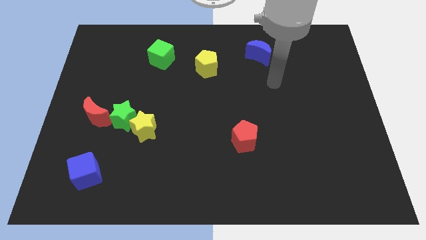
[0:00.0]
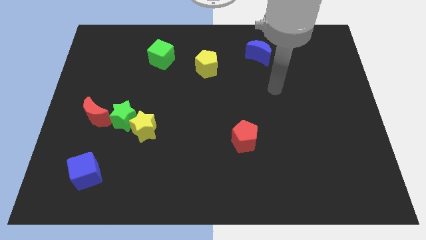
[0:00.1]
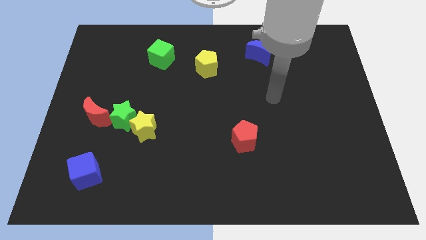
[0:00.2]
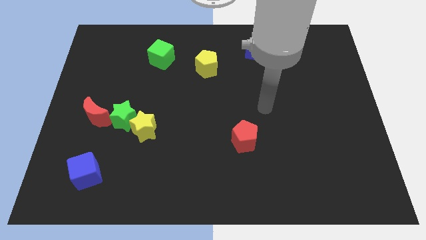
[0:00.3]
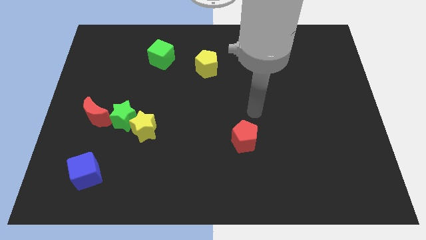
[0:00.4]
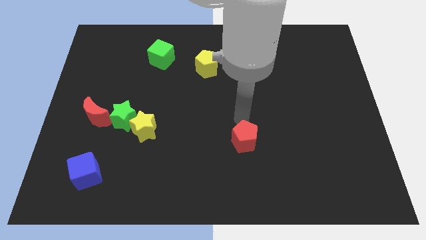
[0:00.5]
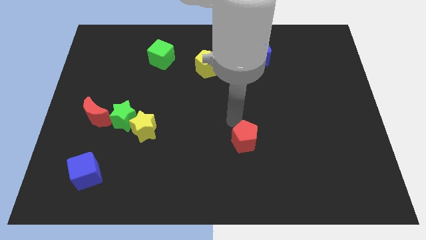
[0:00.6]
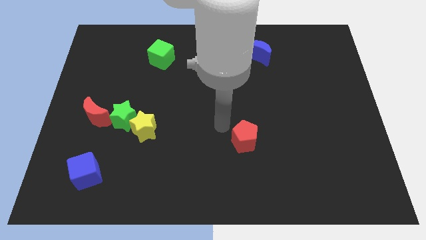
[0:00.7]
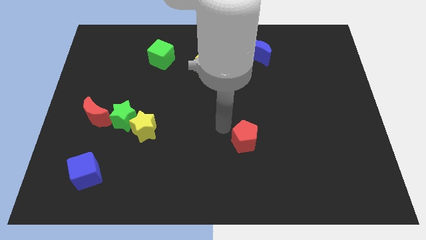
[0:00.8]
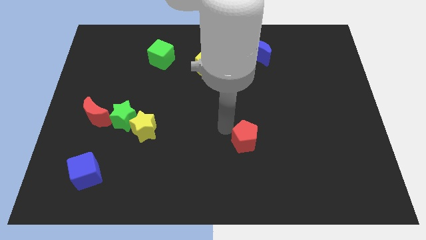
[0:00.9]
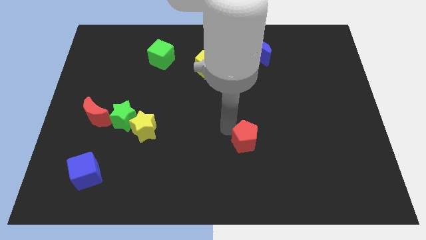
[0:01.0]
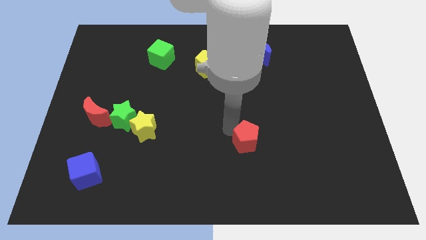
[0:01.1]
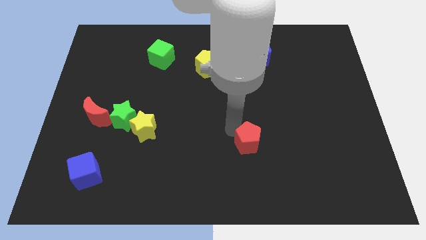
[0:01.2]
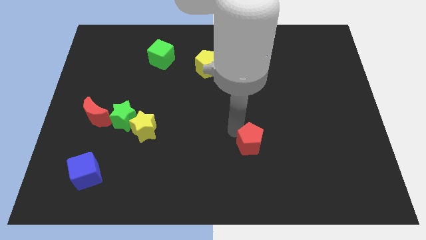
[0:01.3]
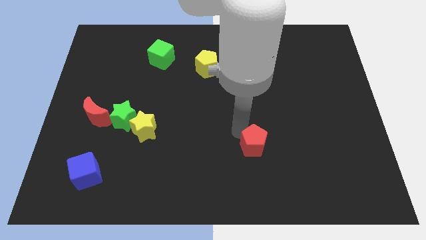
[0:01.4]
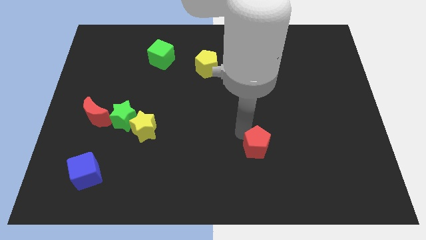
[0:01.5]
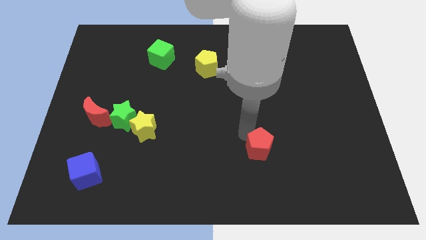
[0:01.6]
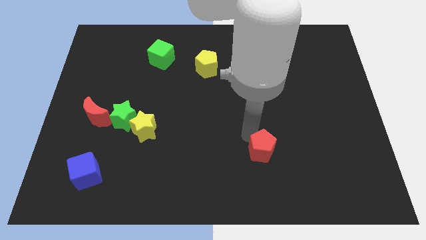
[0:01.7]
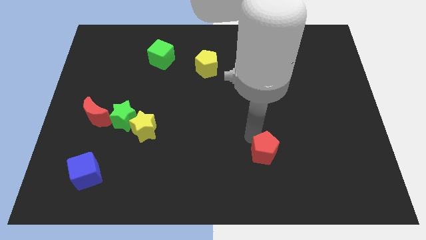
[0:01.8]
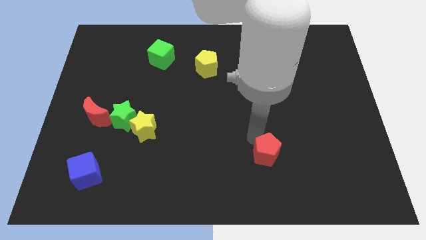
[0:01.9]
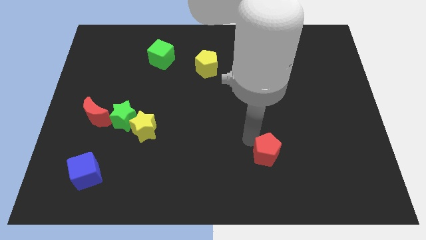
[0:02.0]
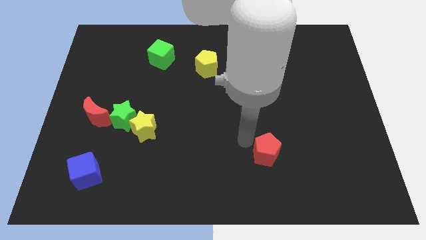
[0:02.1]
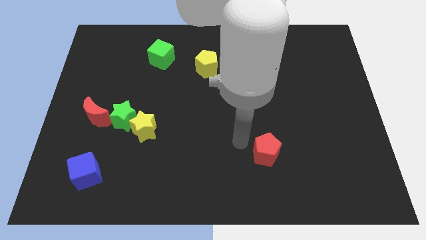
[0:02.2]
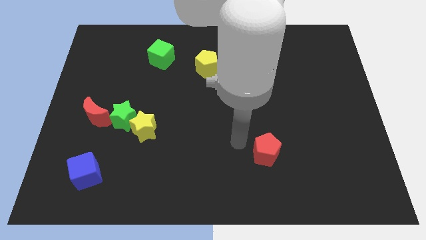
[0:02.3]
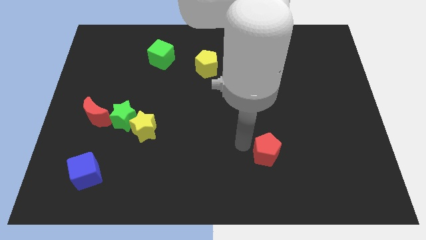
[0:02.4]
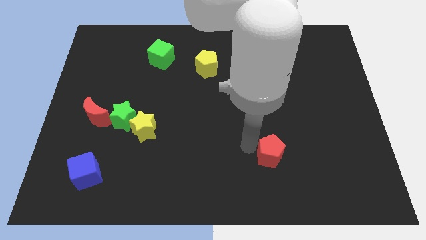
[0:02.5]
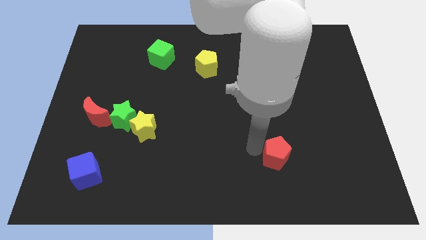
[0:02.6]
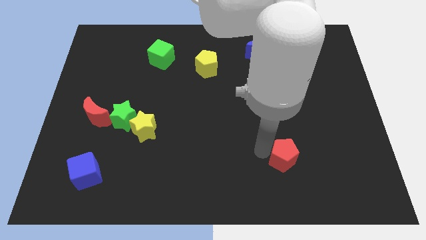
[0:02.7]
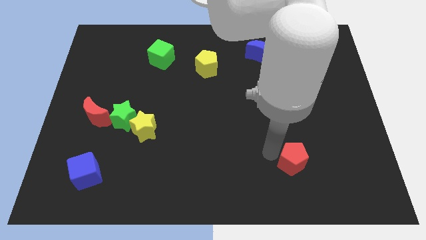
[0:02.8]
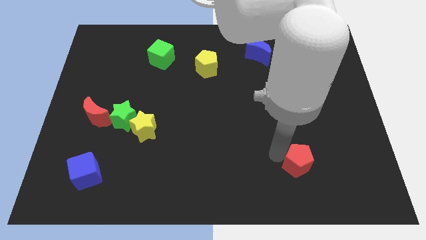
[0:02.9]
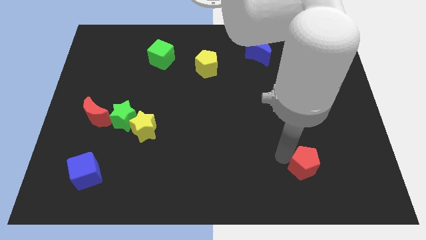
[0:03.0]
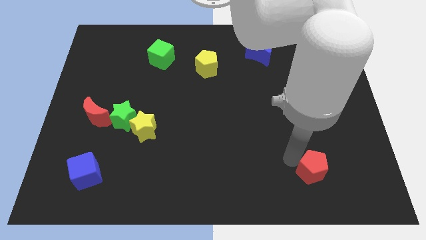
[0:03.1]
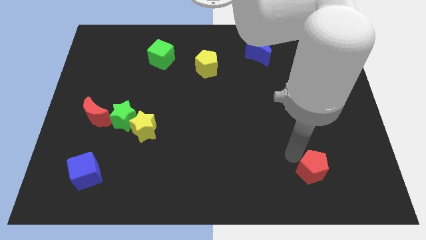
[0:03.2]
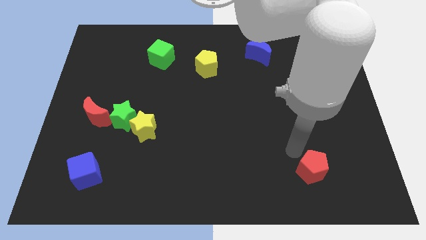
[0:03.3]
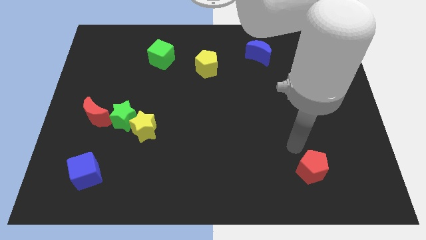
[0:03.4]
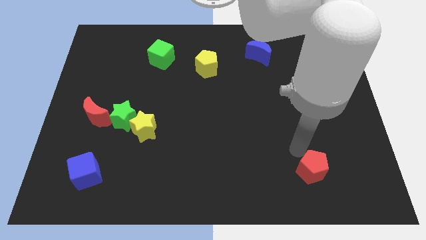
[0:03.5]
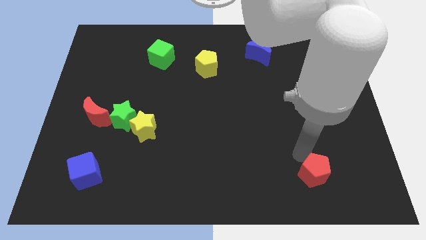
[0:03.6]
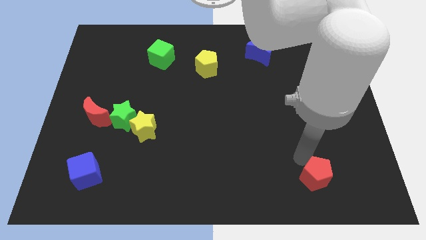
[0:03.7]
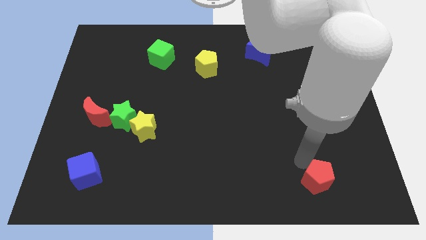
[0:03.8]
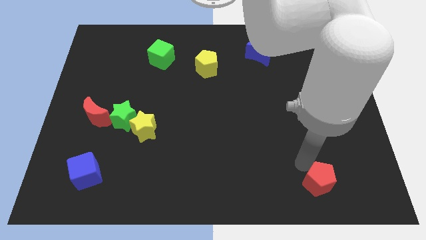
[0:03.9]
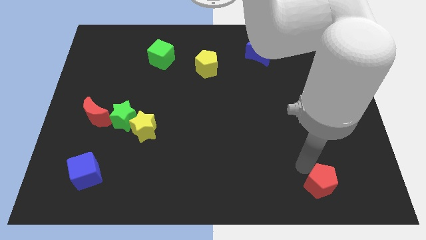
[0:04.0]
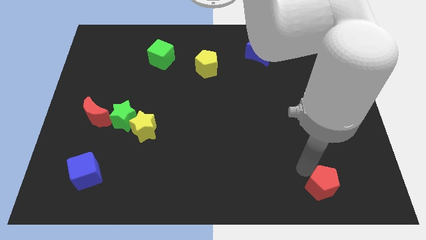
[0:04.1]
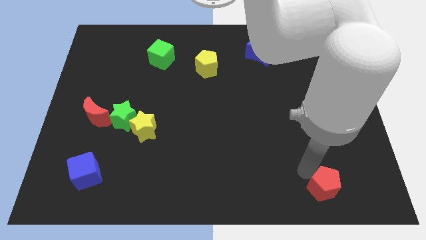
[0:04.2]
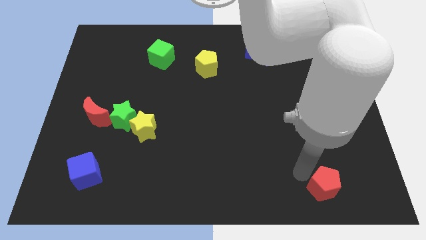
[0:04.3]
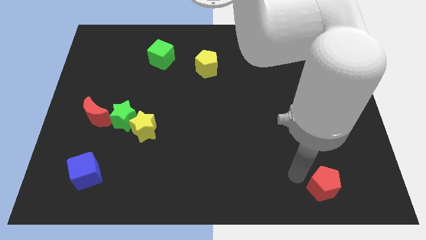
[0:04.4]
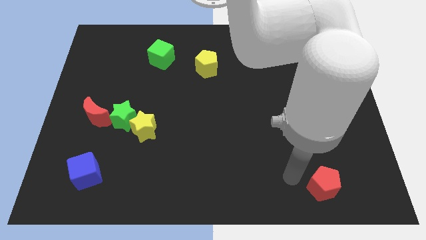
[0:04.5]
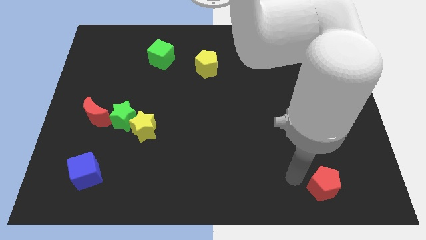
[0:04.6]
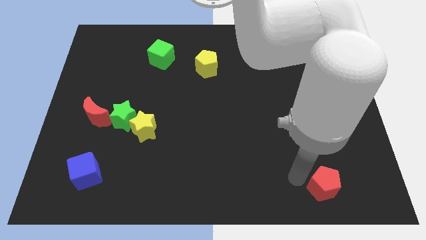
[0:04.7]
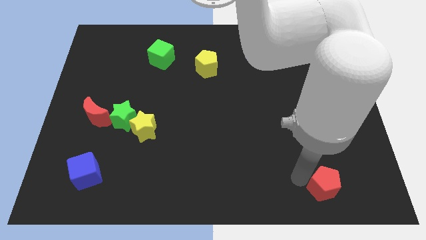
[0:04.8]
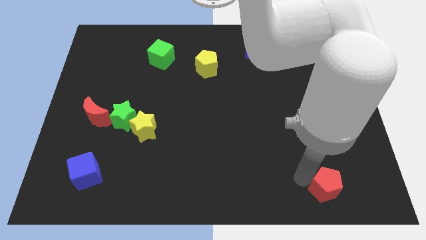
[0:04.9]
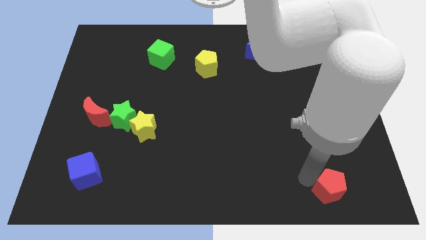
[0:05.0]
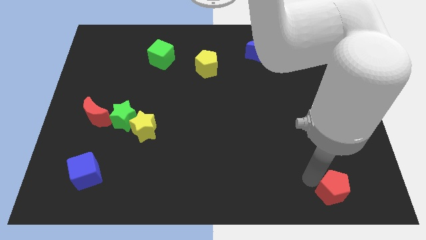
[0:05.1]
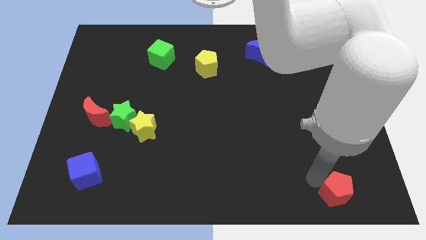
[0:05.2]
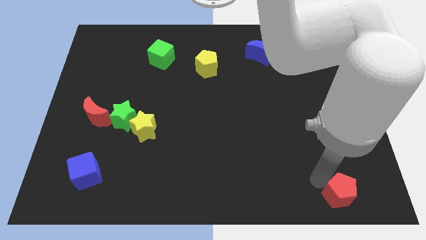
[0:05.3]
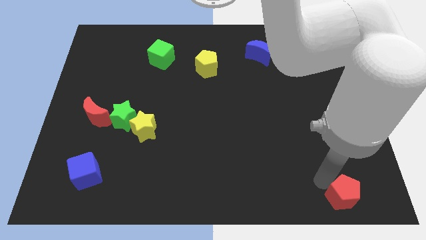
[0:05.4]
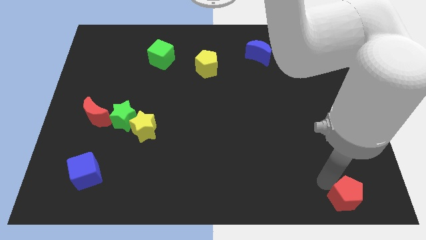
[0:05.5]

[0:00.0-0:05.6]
move the red pentagon to the bottom right corner

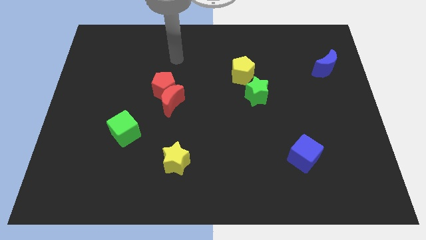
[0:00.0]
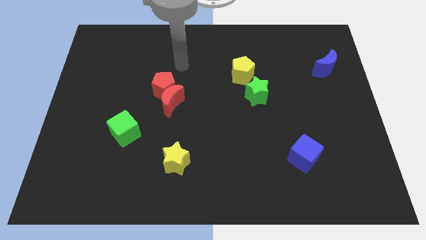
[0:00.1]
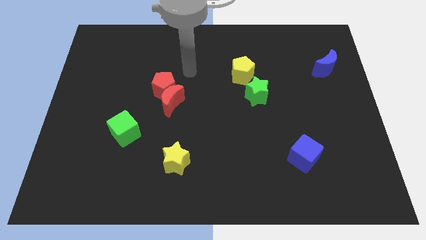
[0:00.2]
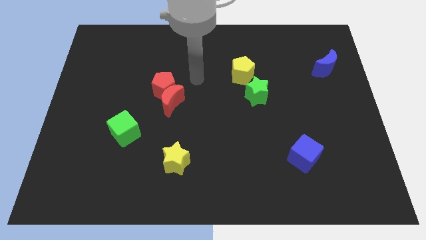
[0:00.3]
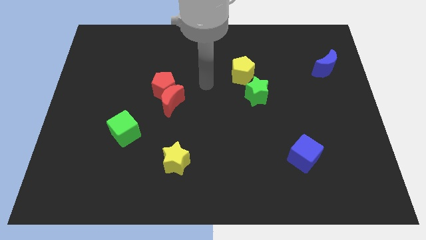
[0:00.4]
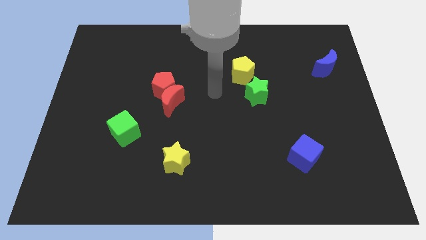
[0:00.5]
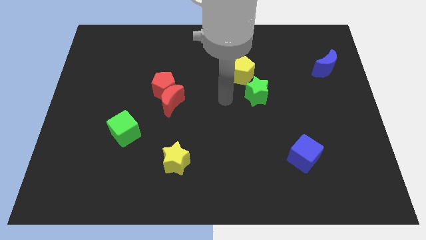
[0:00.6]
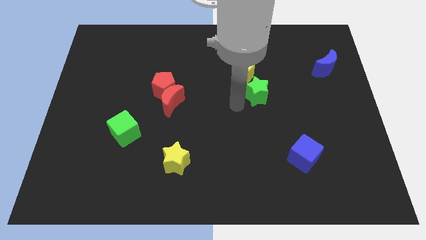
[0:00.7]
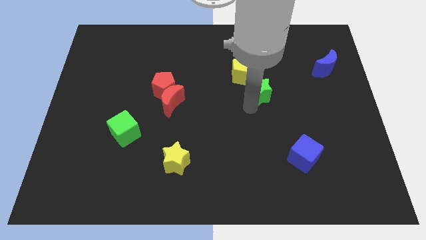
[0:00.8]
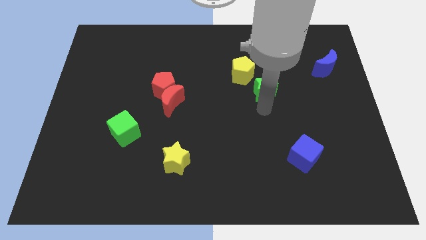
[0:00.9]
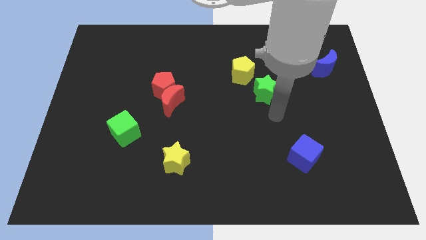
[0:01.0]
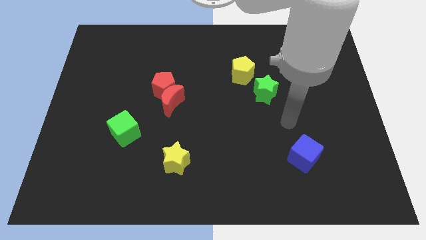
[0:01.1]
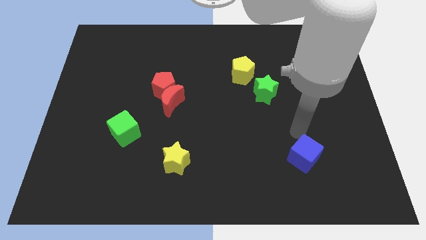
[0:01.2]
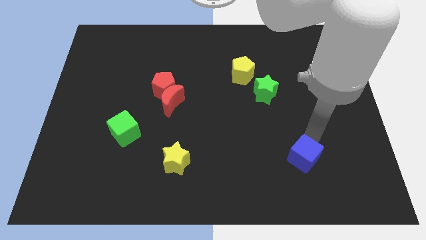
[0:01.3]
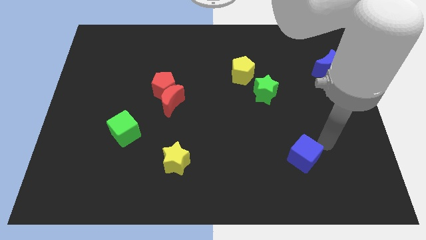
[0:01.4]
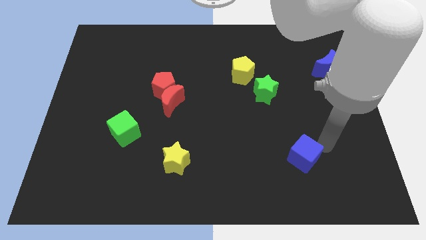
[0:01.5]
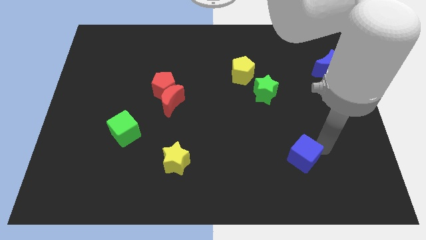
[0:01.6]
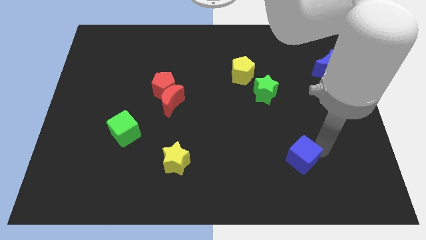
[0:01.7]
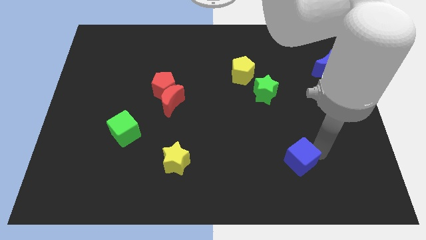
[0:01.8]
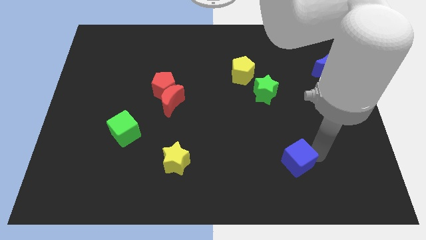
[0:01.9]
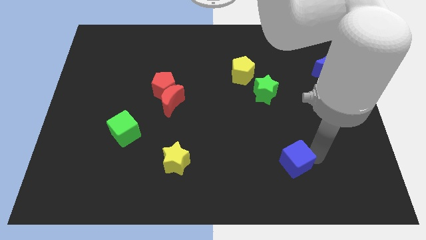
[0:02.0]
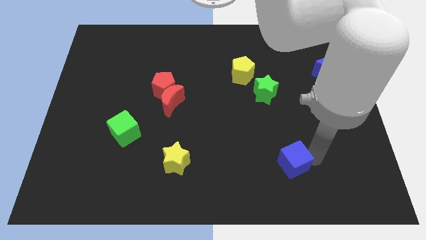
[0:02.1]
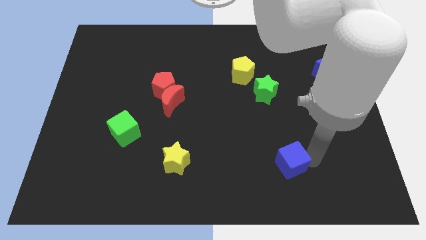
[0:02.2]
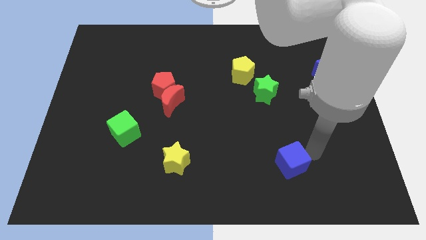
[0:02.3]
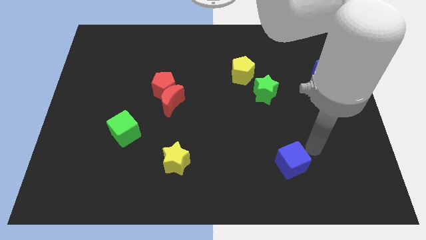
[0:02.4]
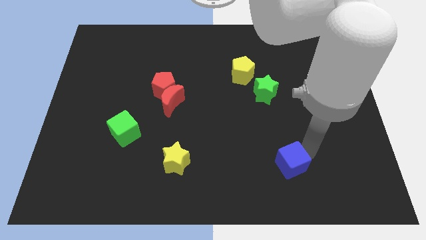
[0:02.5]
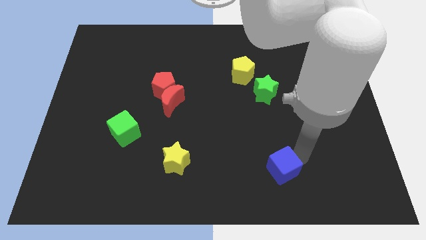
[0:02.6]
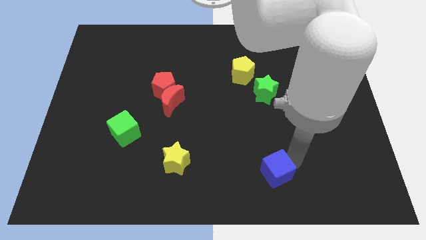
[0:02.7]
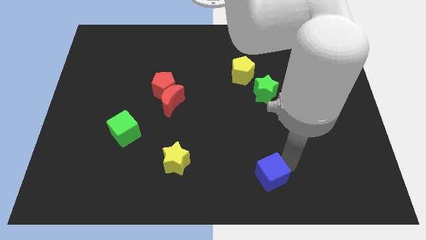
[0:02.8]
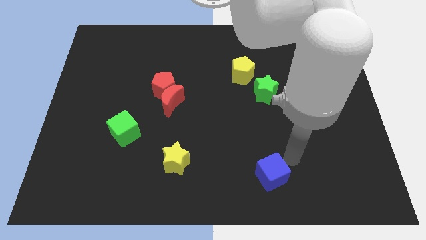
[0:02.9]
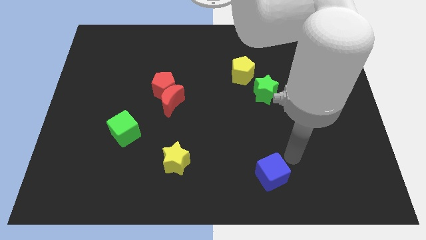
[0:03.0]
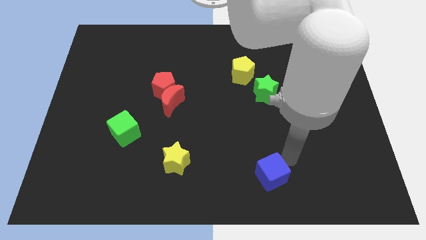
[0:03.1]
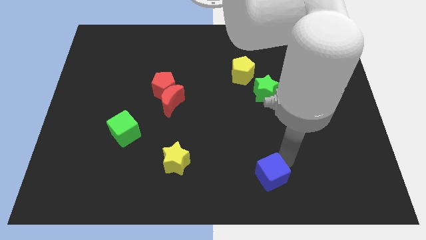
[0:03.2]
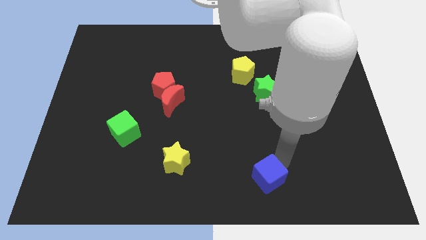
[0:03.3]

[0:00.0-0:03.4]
push the blue cube to the bottom
